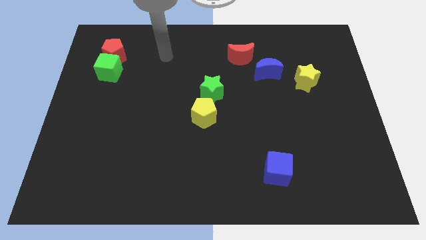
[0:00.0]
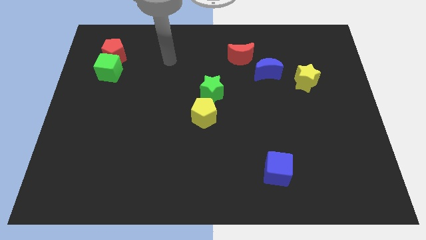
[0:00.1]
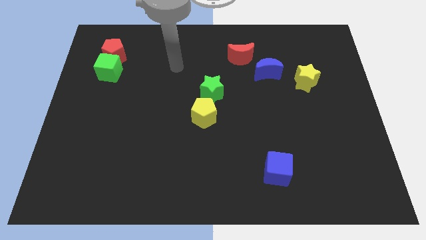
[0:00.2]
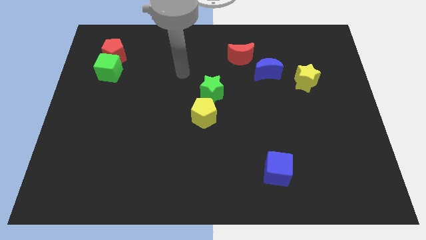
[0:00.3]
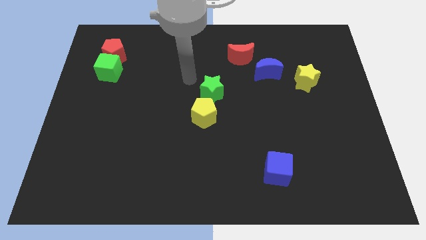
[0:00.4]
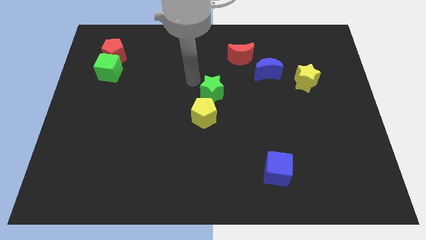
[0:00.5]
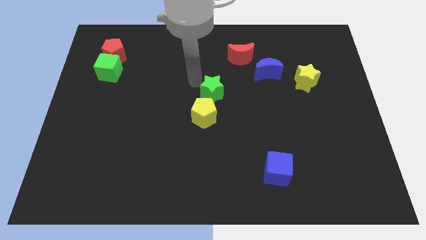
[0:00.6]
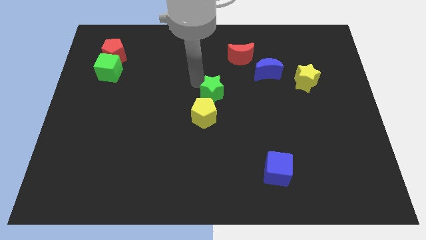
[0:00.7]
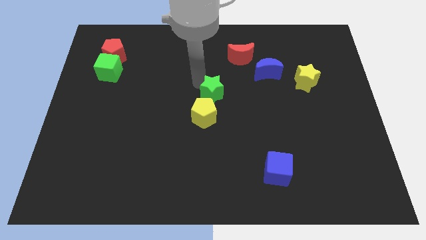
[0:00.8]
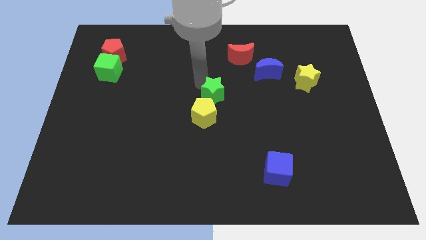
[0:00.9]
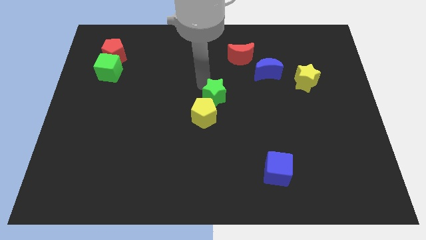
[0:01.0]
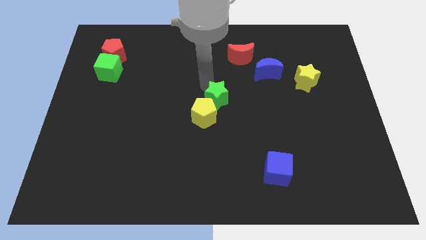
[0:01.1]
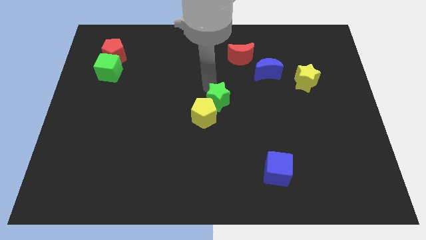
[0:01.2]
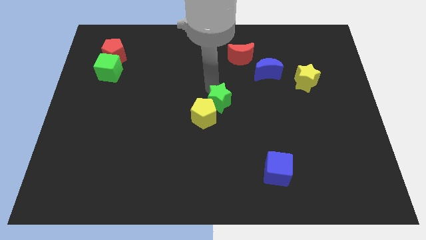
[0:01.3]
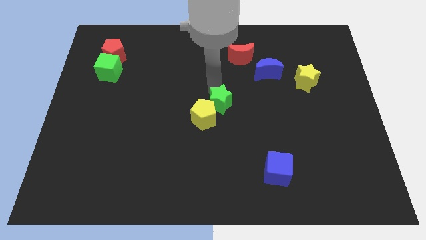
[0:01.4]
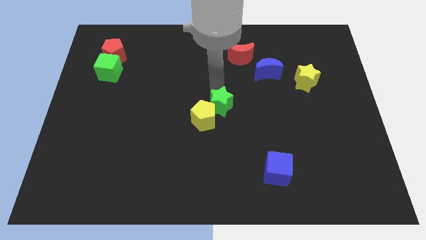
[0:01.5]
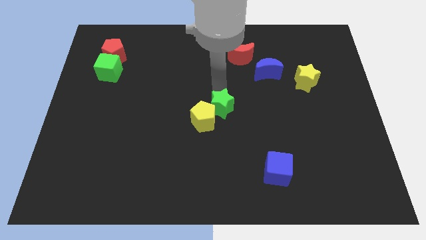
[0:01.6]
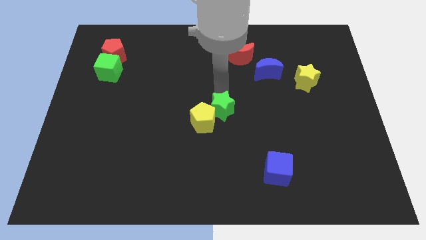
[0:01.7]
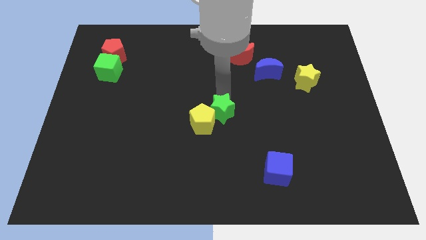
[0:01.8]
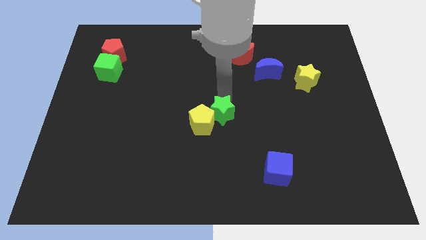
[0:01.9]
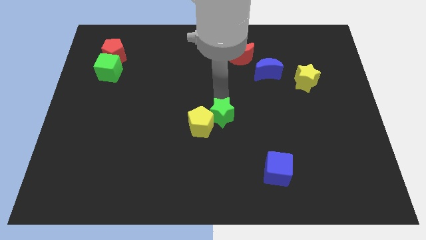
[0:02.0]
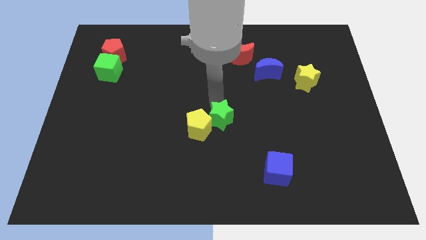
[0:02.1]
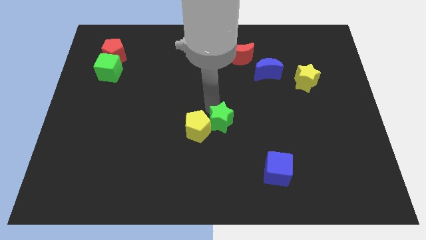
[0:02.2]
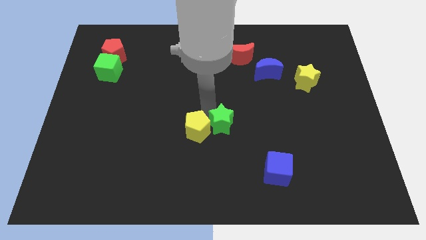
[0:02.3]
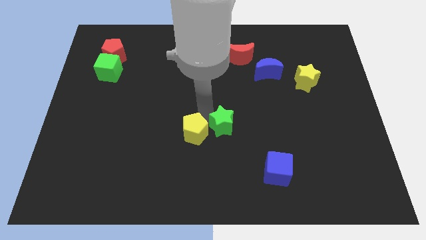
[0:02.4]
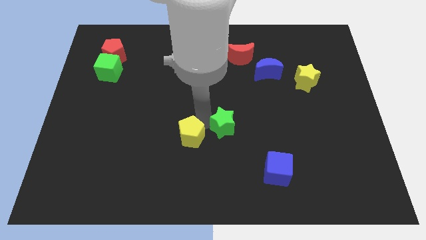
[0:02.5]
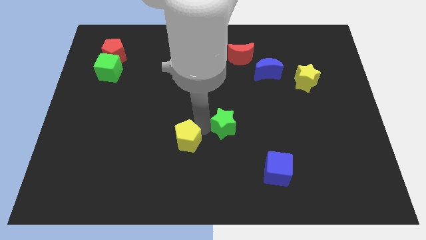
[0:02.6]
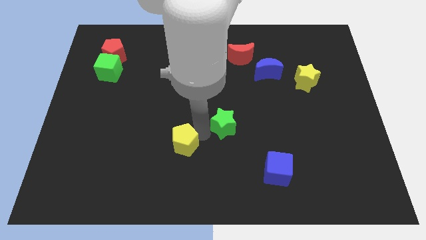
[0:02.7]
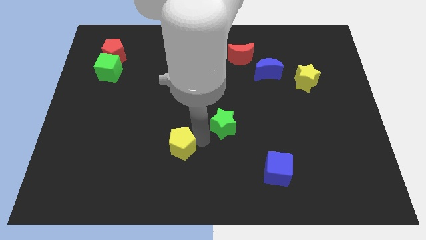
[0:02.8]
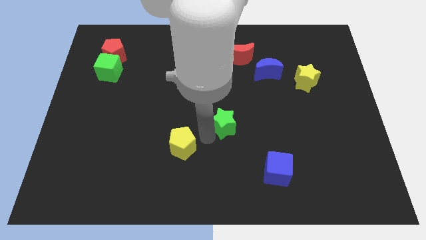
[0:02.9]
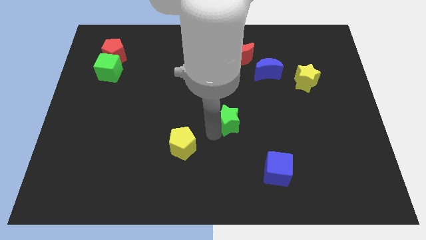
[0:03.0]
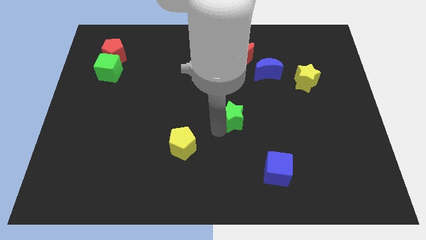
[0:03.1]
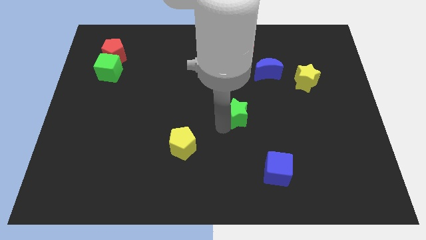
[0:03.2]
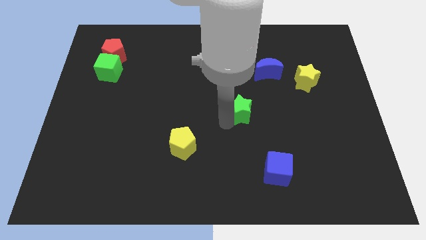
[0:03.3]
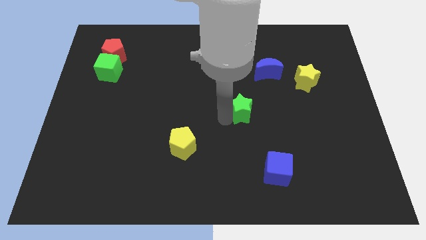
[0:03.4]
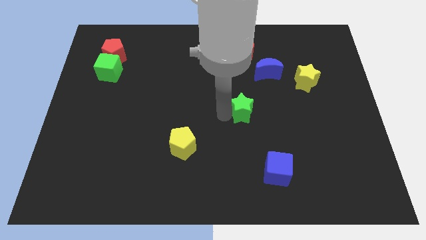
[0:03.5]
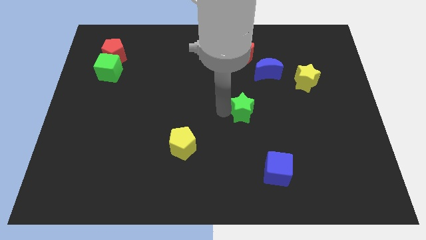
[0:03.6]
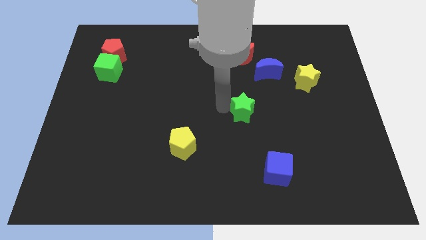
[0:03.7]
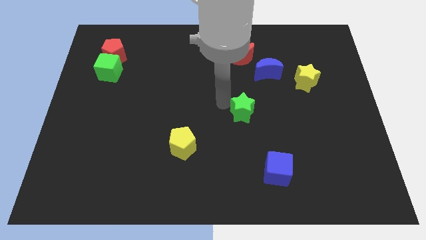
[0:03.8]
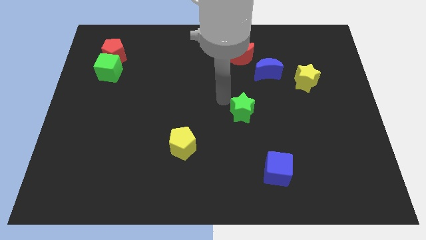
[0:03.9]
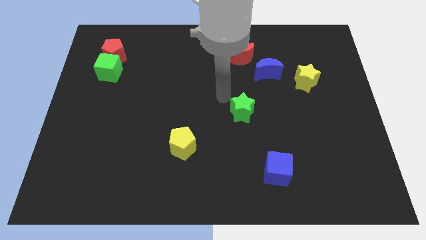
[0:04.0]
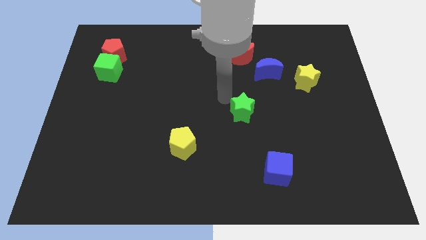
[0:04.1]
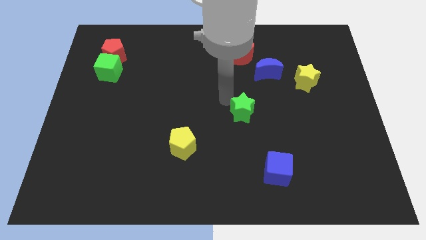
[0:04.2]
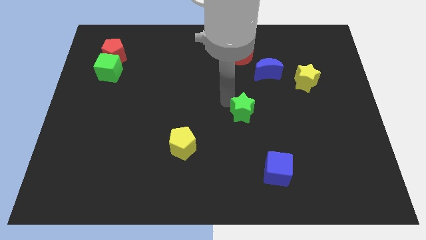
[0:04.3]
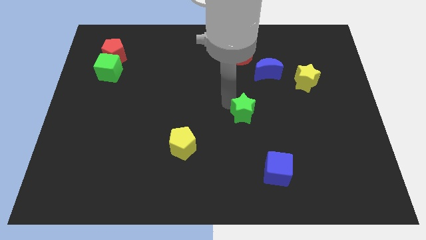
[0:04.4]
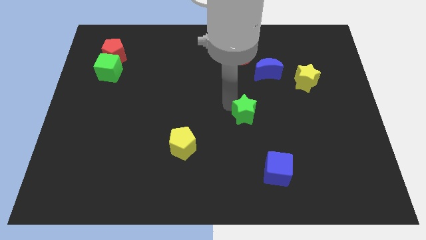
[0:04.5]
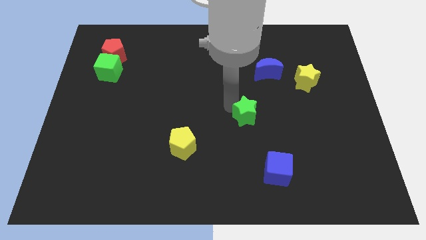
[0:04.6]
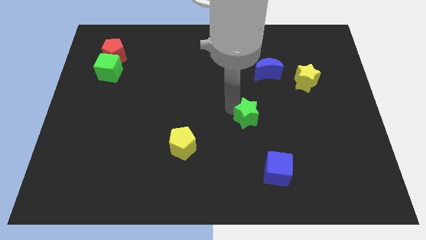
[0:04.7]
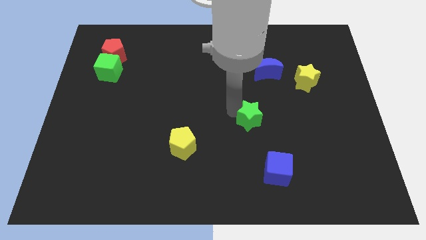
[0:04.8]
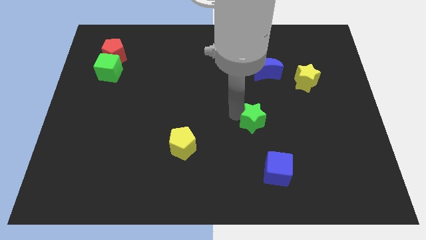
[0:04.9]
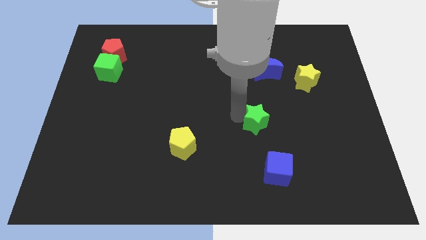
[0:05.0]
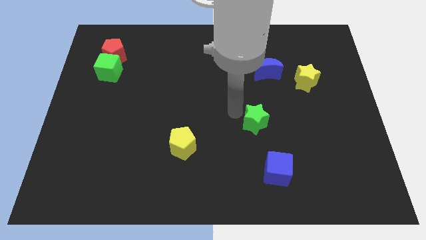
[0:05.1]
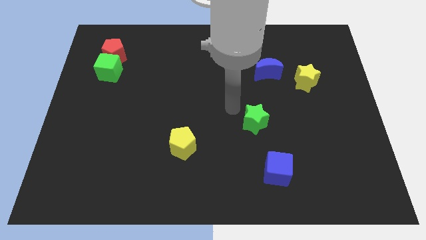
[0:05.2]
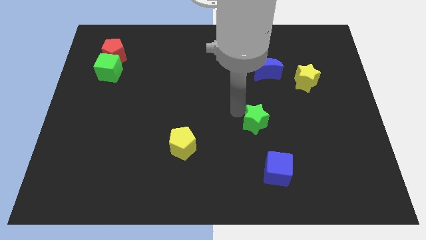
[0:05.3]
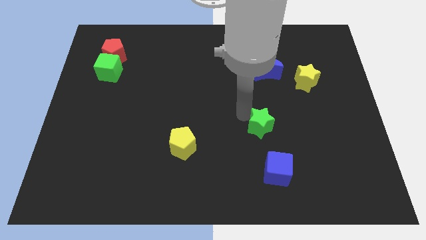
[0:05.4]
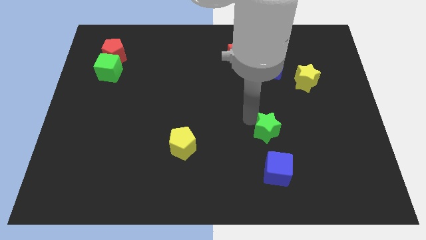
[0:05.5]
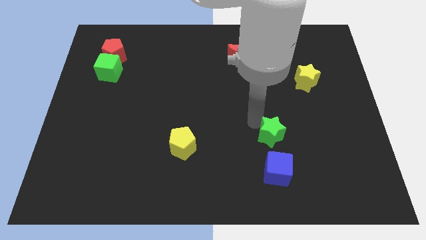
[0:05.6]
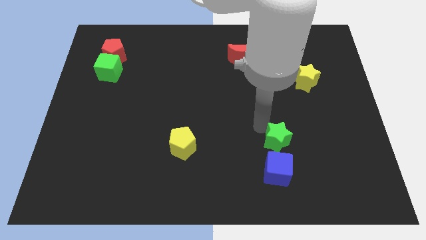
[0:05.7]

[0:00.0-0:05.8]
push the green star diagonally up and to the right of the blue cube
